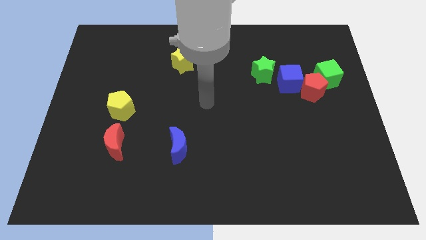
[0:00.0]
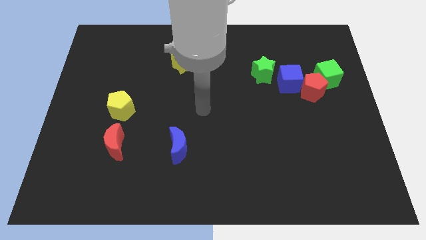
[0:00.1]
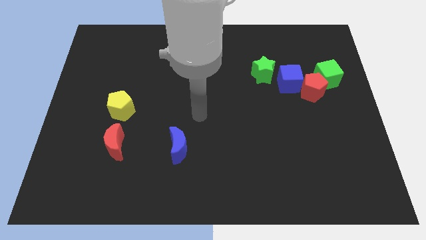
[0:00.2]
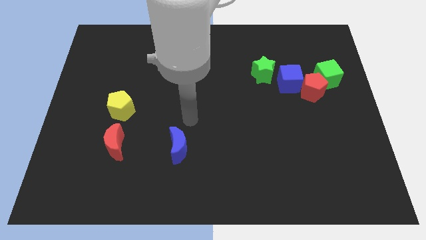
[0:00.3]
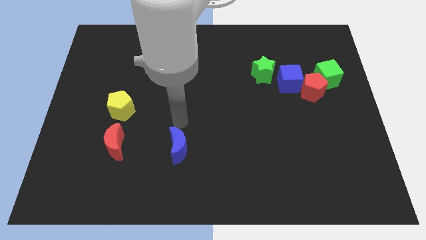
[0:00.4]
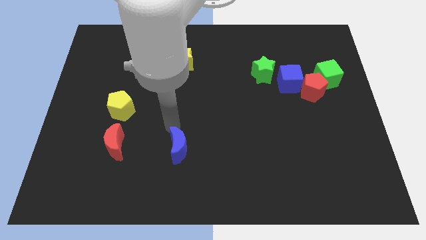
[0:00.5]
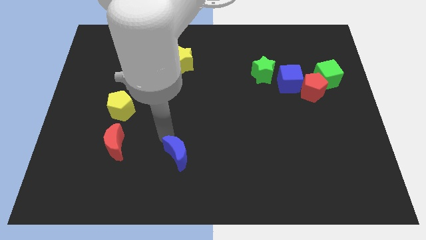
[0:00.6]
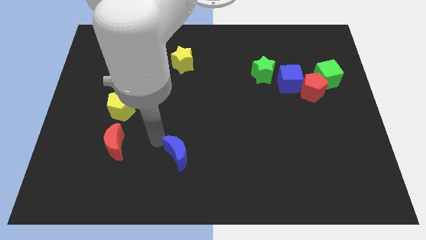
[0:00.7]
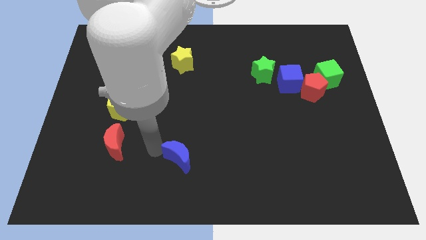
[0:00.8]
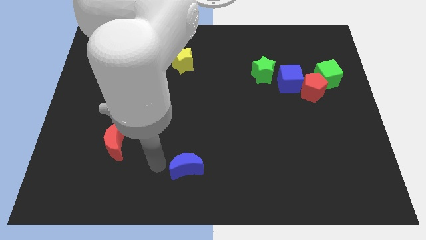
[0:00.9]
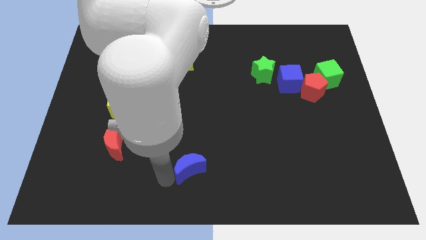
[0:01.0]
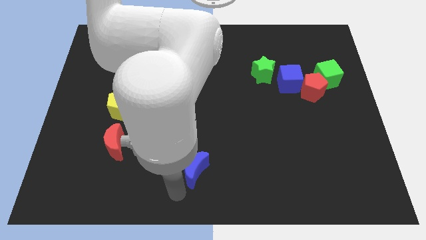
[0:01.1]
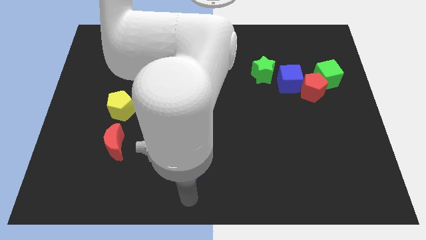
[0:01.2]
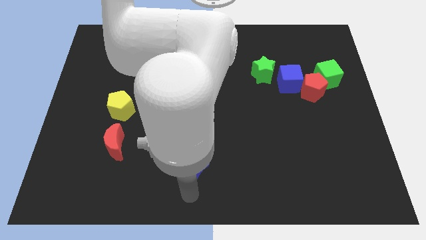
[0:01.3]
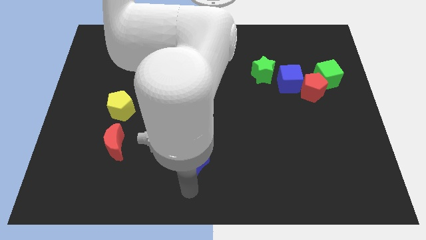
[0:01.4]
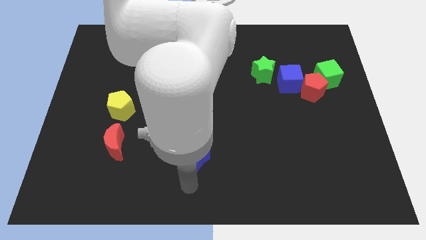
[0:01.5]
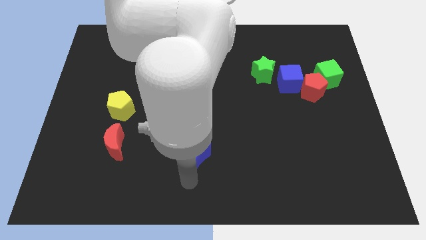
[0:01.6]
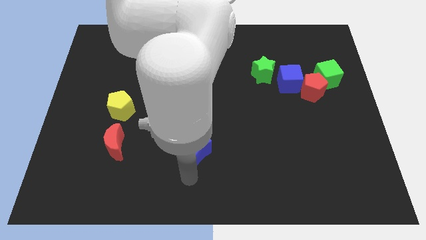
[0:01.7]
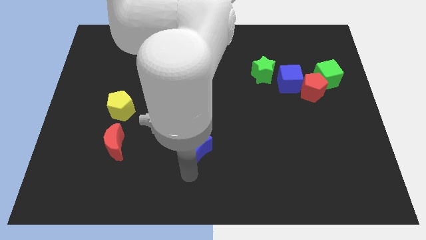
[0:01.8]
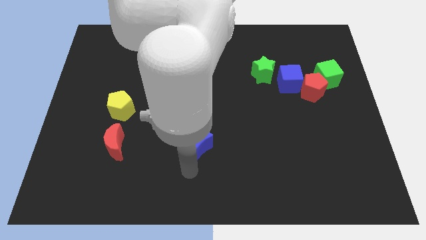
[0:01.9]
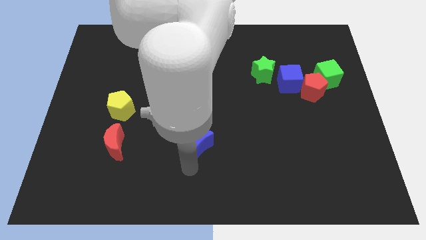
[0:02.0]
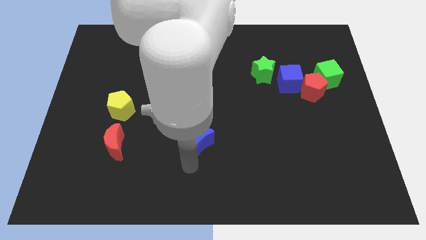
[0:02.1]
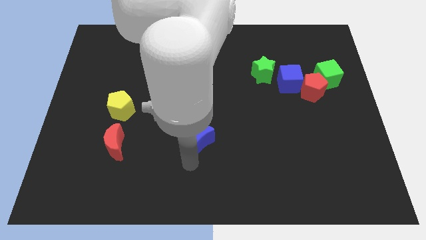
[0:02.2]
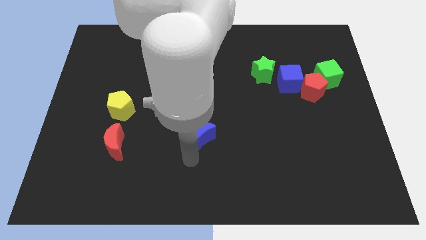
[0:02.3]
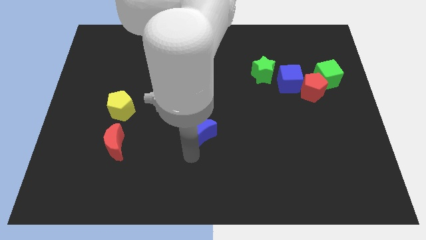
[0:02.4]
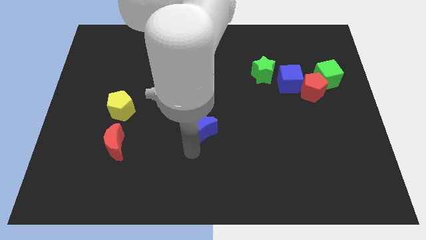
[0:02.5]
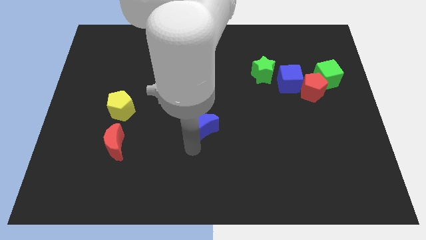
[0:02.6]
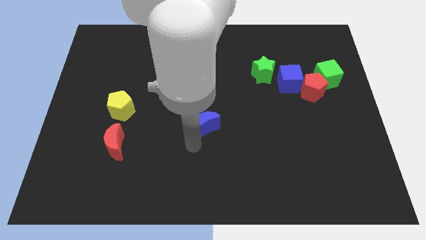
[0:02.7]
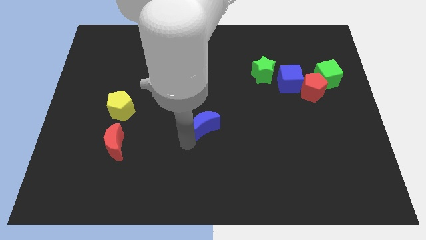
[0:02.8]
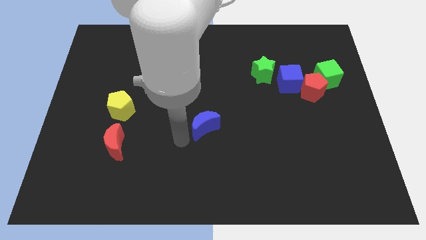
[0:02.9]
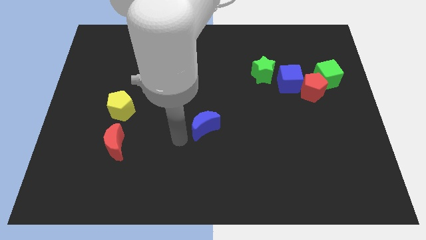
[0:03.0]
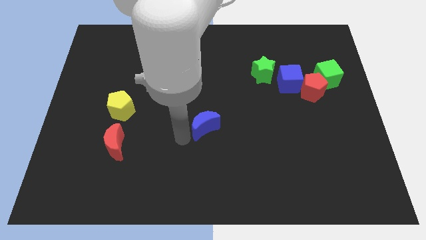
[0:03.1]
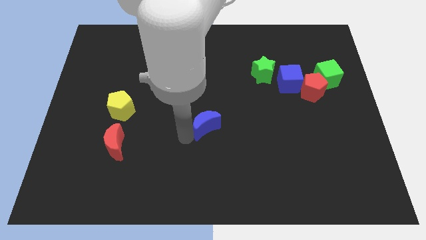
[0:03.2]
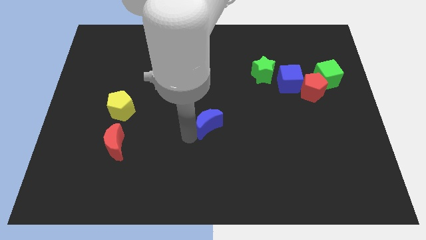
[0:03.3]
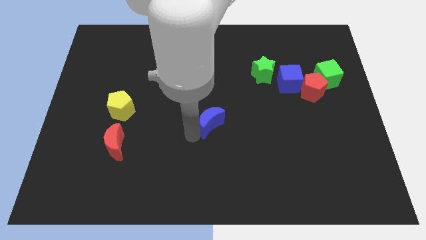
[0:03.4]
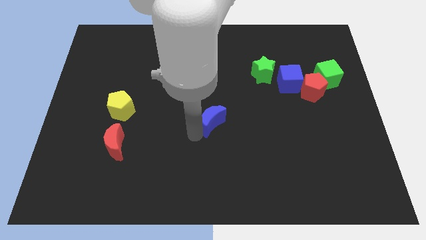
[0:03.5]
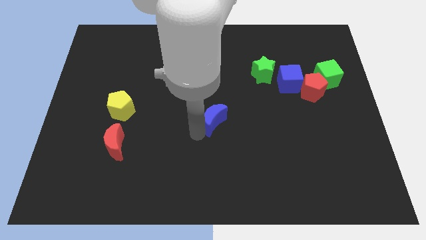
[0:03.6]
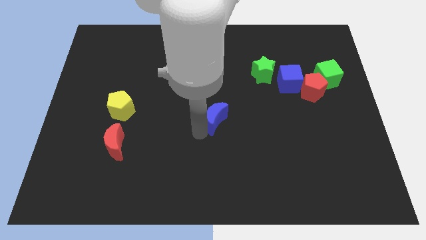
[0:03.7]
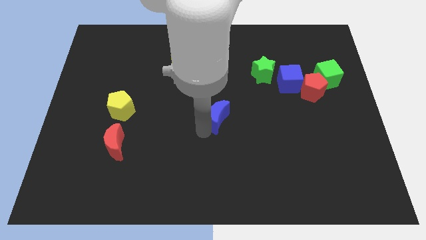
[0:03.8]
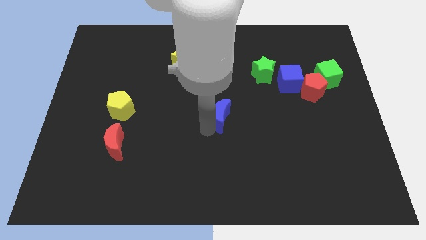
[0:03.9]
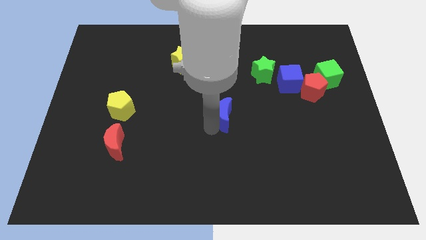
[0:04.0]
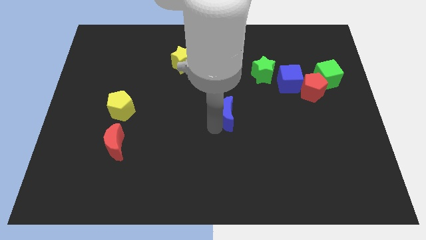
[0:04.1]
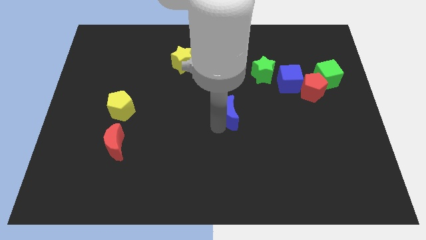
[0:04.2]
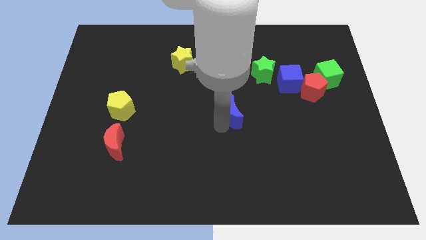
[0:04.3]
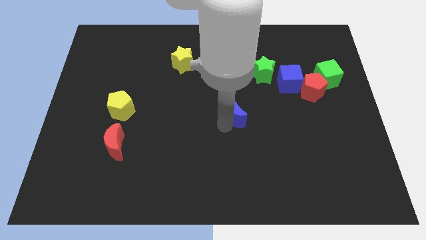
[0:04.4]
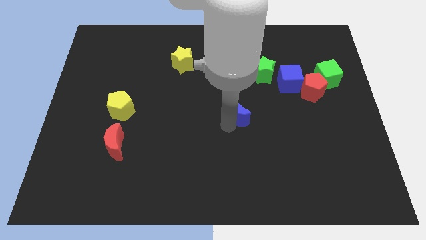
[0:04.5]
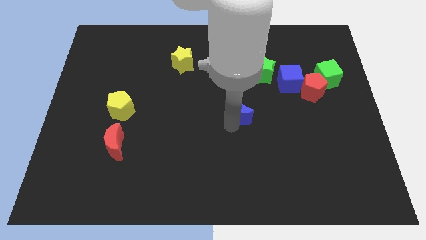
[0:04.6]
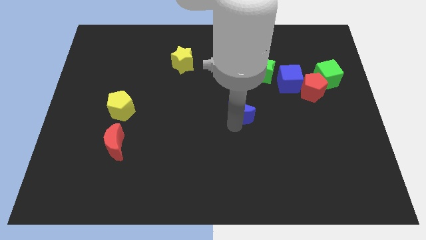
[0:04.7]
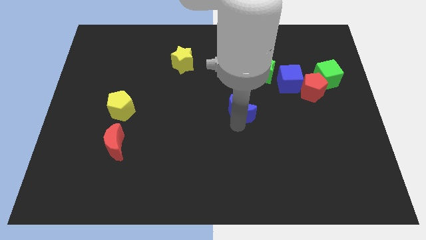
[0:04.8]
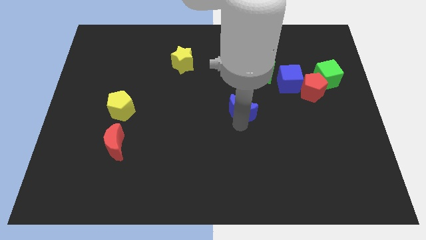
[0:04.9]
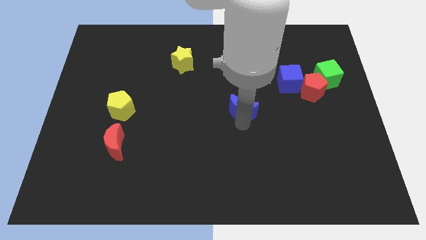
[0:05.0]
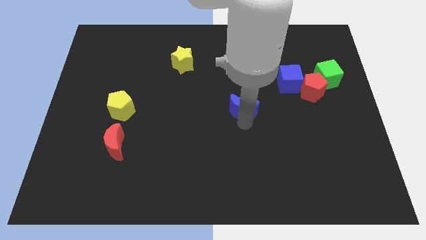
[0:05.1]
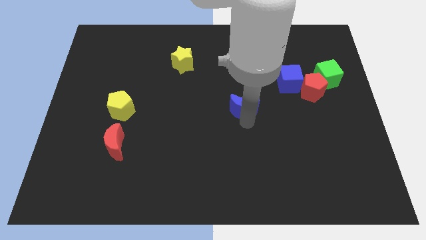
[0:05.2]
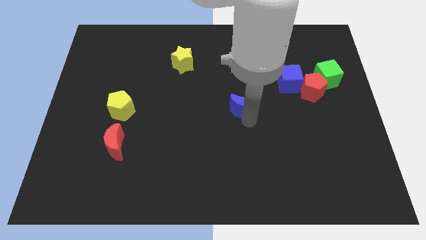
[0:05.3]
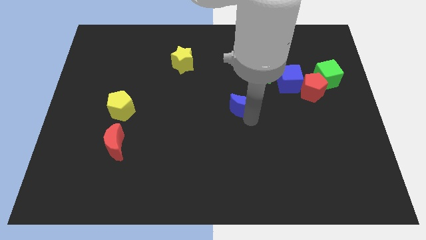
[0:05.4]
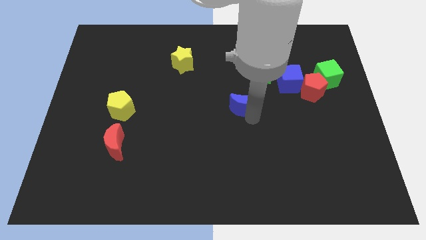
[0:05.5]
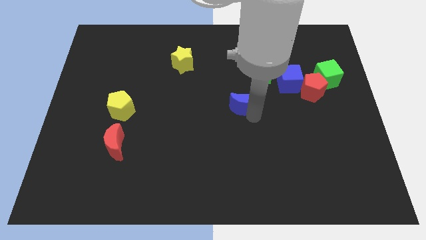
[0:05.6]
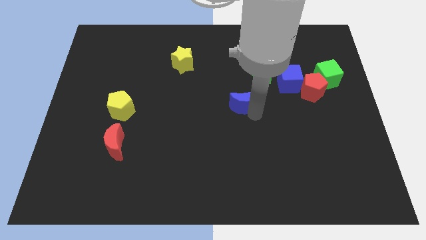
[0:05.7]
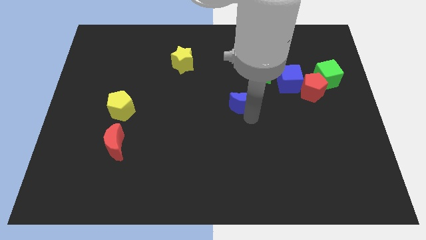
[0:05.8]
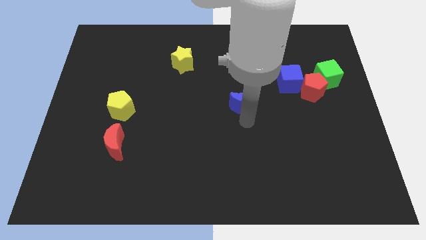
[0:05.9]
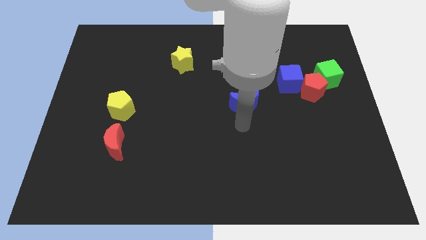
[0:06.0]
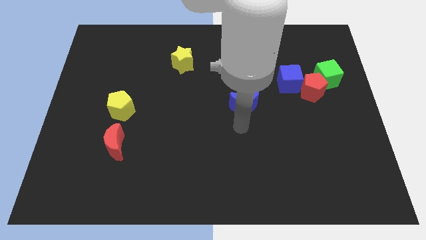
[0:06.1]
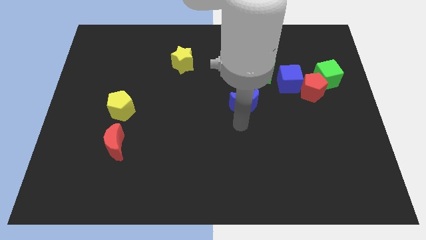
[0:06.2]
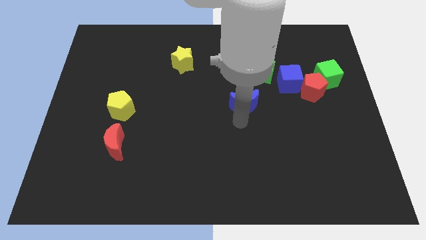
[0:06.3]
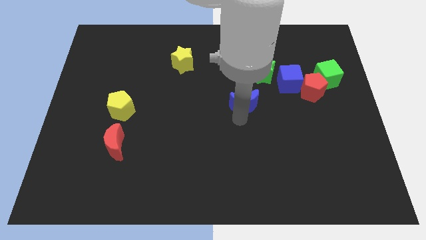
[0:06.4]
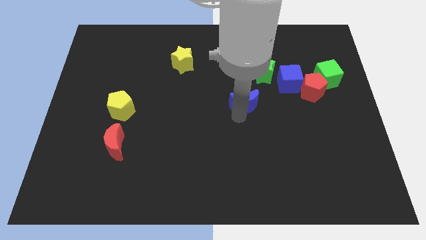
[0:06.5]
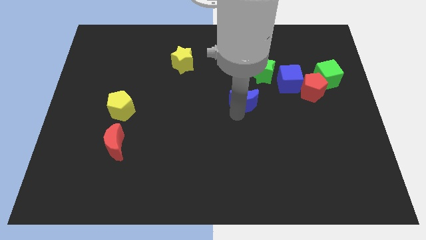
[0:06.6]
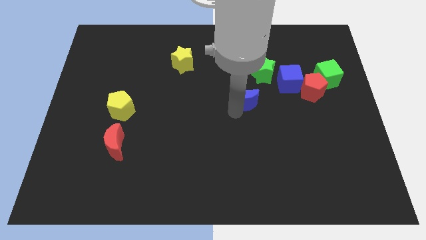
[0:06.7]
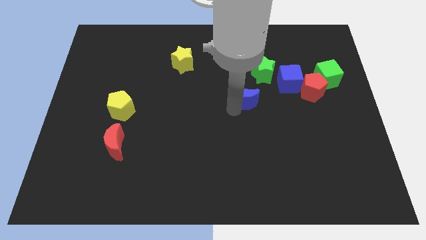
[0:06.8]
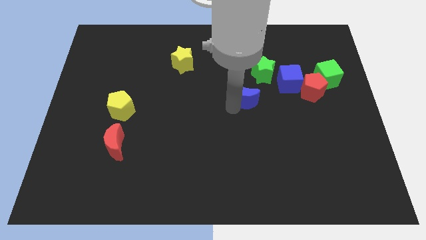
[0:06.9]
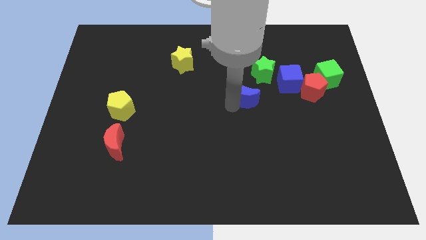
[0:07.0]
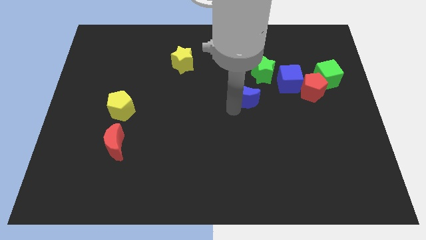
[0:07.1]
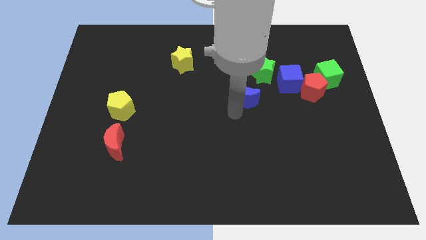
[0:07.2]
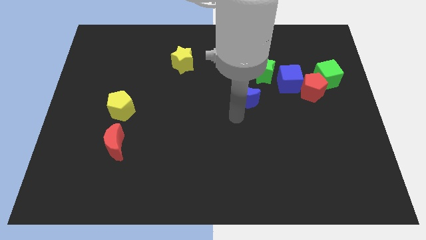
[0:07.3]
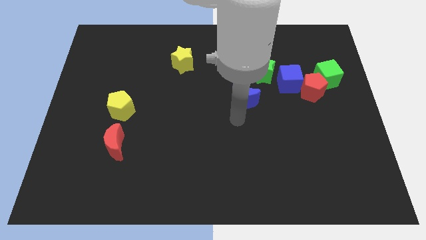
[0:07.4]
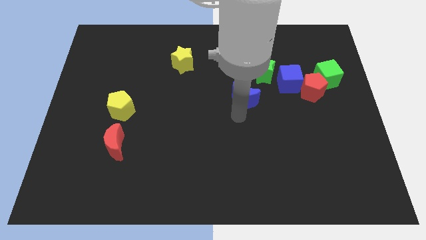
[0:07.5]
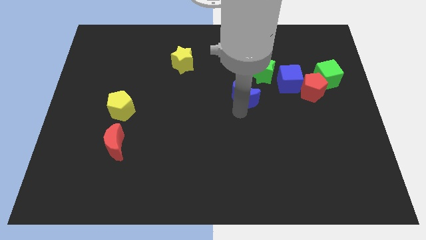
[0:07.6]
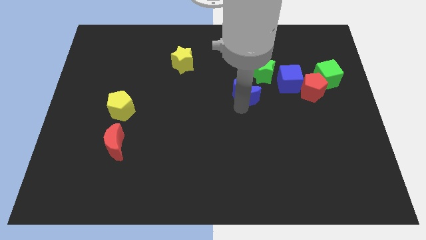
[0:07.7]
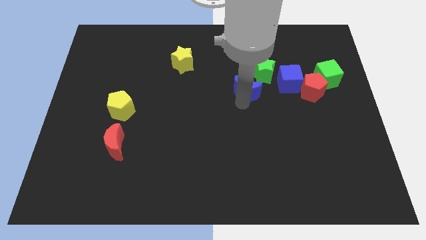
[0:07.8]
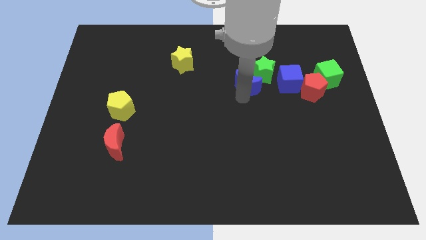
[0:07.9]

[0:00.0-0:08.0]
move the blue moon next to the green star
